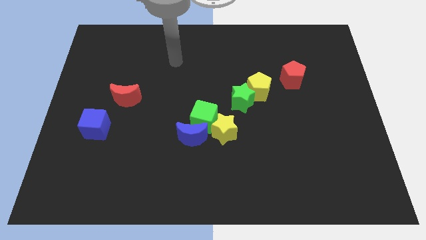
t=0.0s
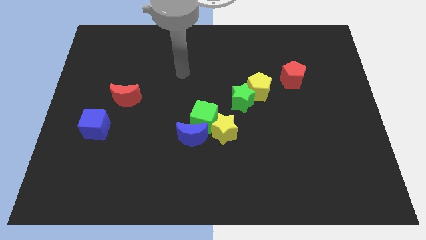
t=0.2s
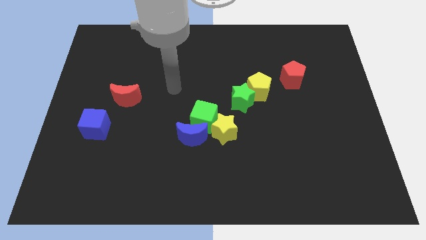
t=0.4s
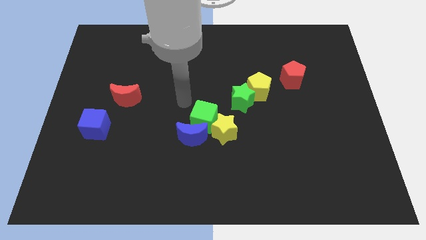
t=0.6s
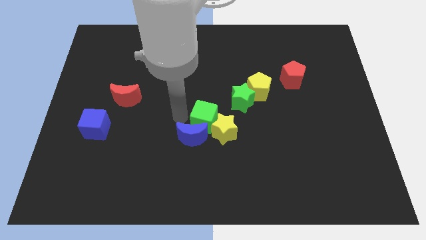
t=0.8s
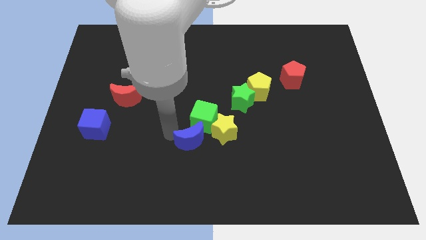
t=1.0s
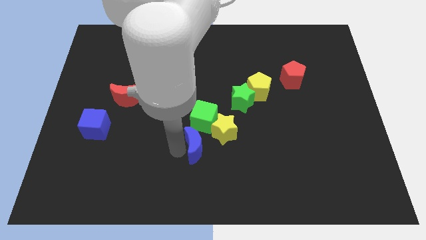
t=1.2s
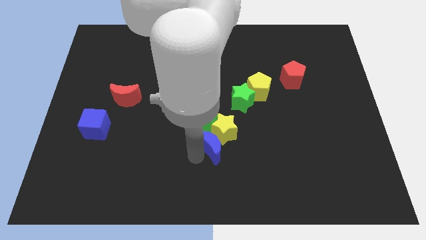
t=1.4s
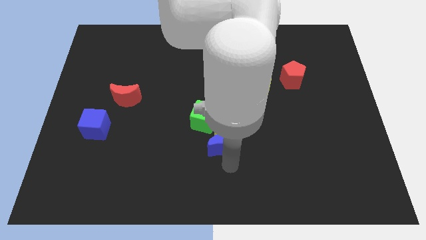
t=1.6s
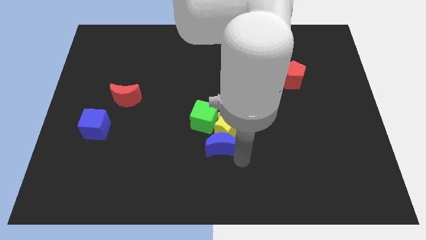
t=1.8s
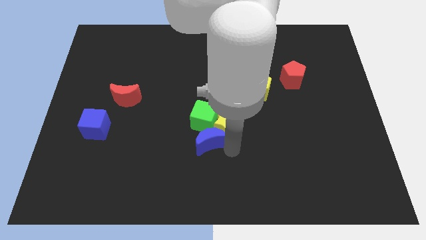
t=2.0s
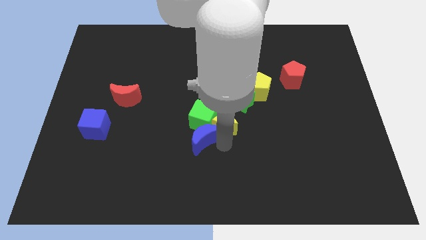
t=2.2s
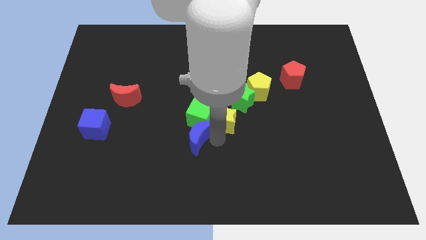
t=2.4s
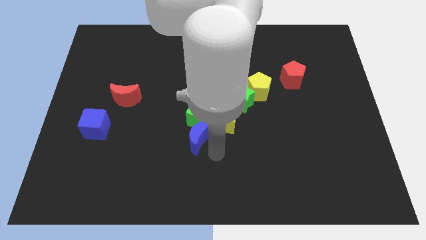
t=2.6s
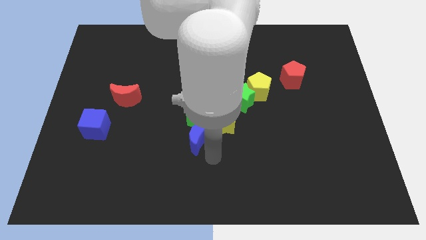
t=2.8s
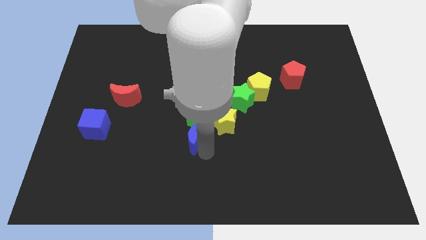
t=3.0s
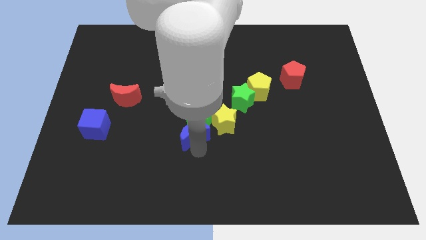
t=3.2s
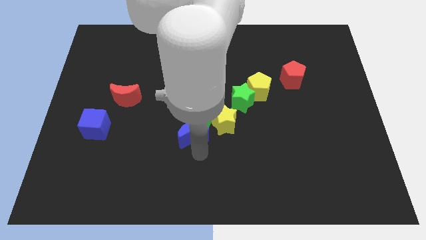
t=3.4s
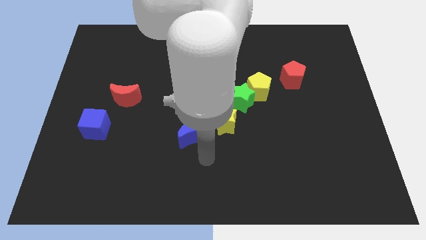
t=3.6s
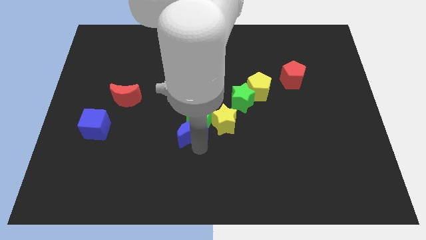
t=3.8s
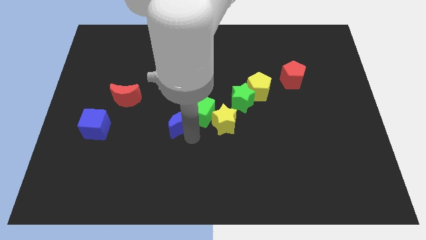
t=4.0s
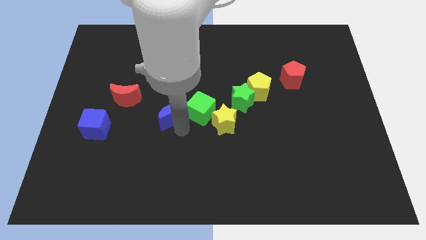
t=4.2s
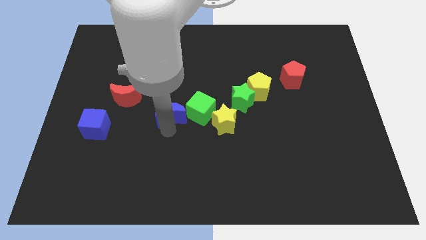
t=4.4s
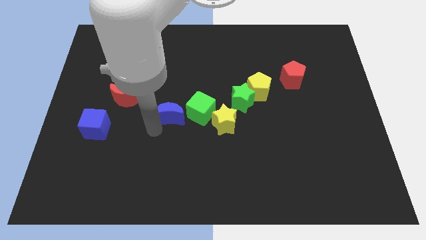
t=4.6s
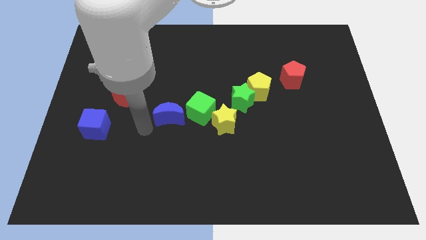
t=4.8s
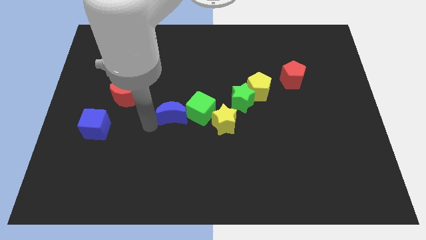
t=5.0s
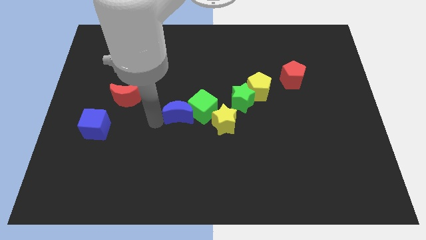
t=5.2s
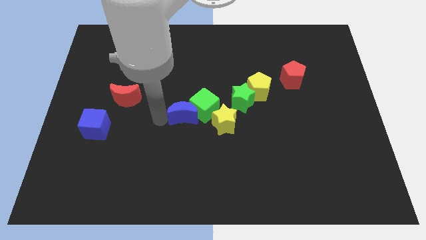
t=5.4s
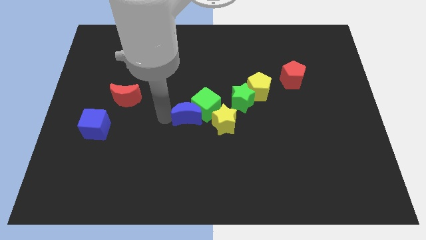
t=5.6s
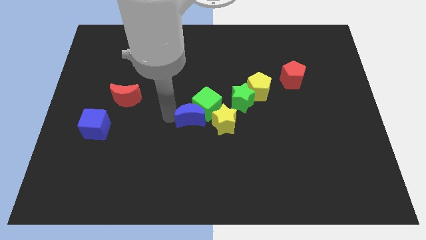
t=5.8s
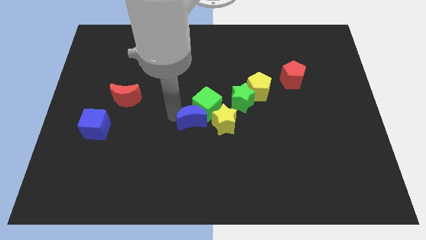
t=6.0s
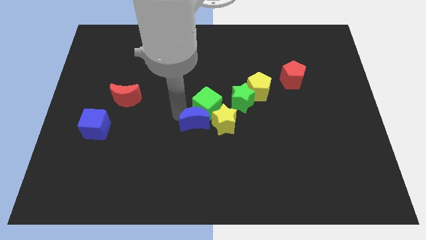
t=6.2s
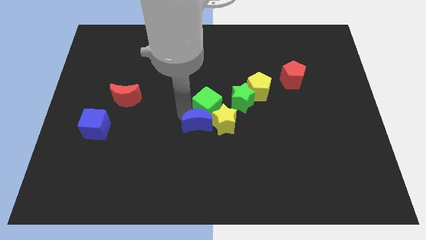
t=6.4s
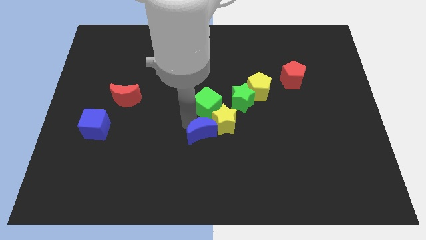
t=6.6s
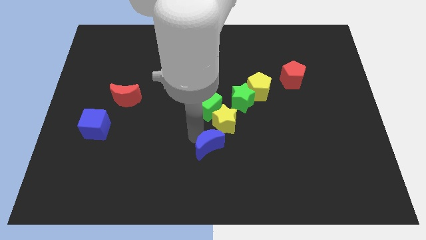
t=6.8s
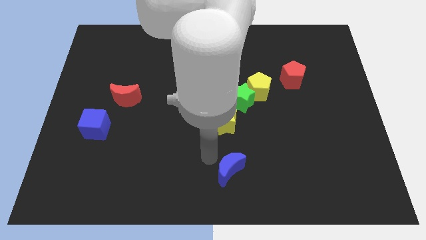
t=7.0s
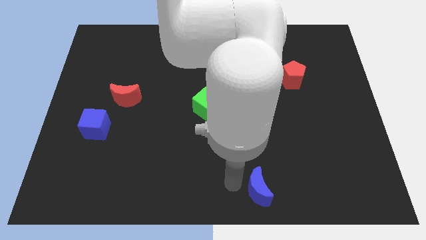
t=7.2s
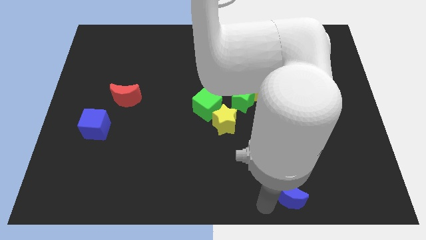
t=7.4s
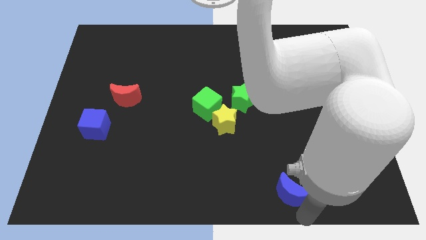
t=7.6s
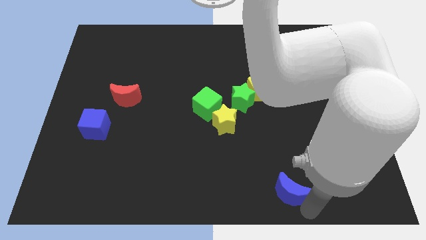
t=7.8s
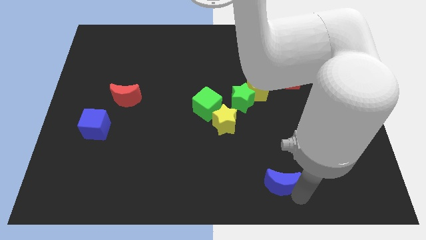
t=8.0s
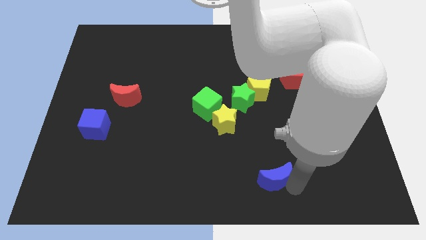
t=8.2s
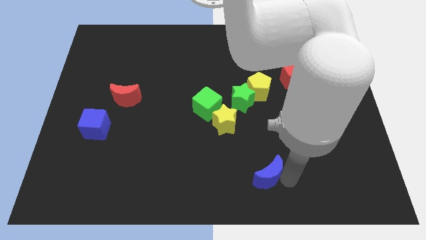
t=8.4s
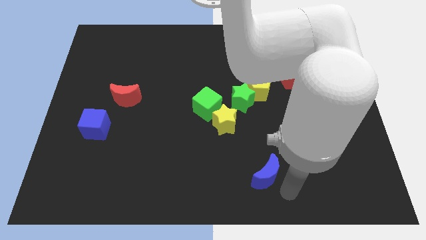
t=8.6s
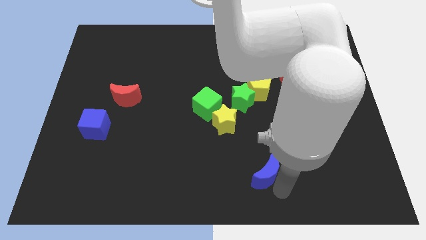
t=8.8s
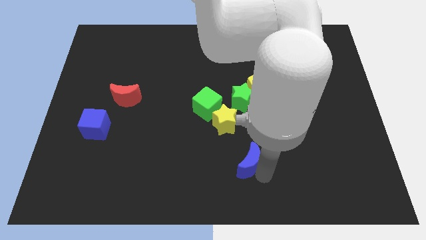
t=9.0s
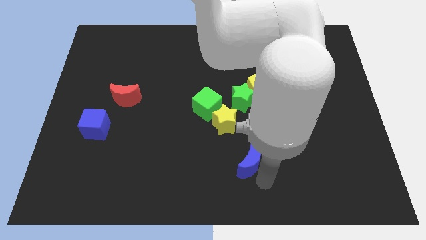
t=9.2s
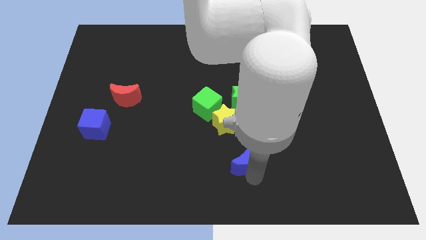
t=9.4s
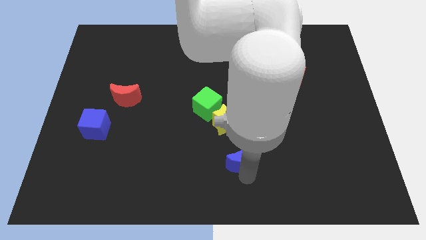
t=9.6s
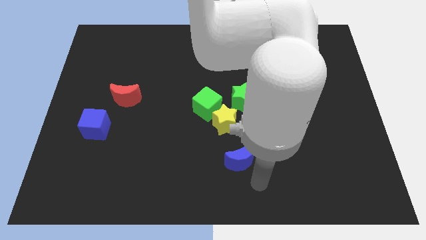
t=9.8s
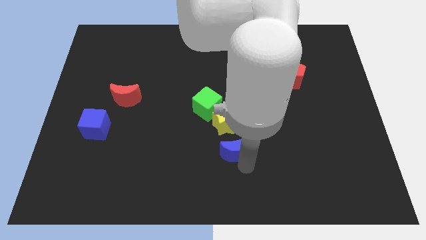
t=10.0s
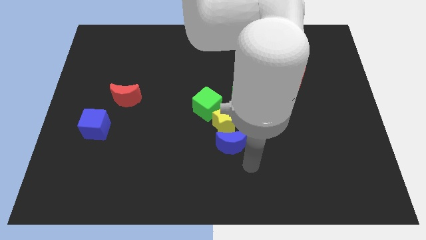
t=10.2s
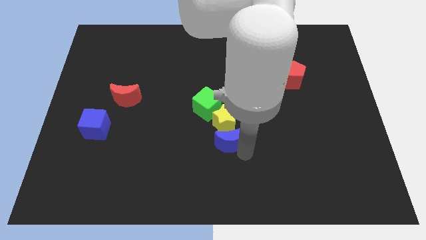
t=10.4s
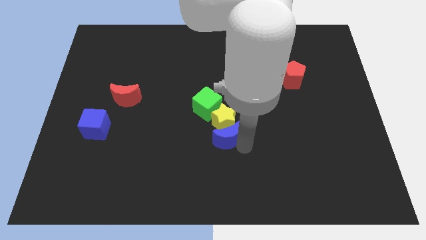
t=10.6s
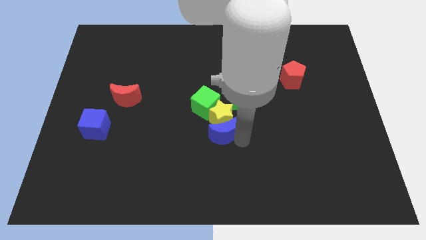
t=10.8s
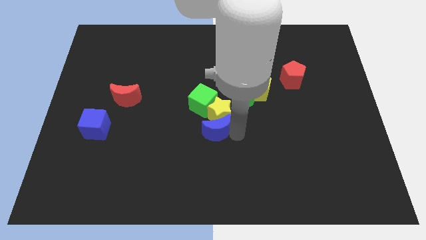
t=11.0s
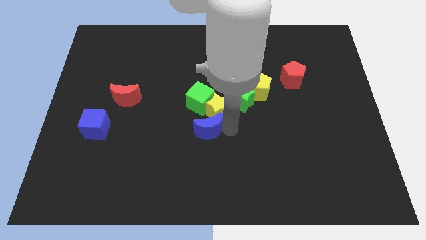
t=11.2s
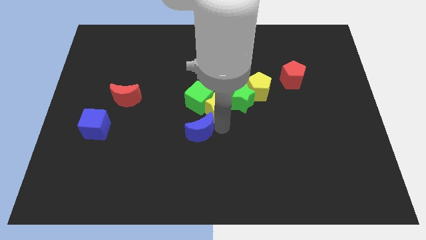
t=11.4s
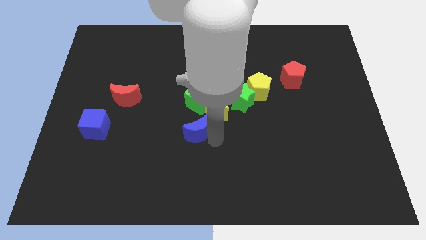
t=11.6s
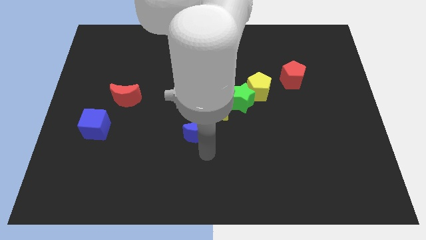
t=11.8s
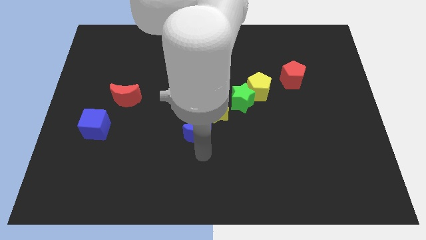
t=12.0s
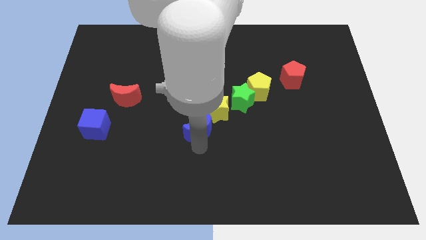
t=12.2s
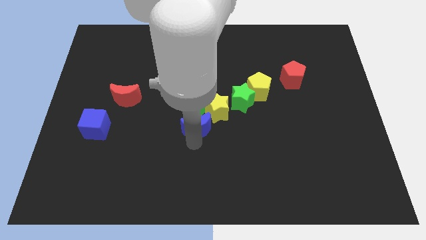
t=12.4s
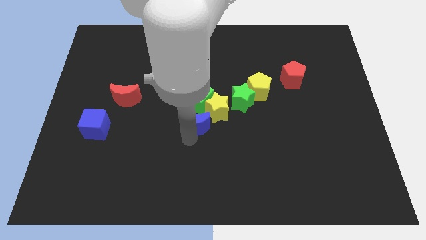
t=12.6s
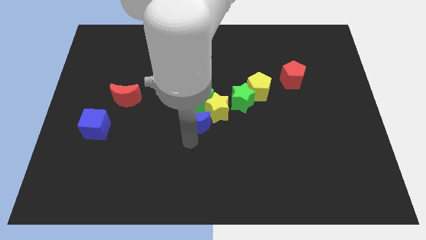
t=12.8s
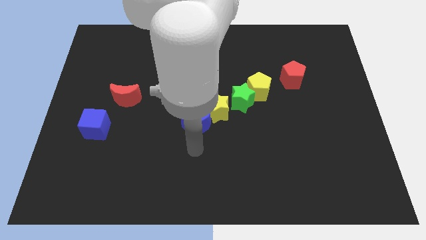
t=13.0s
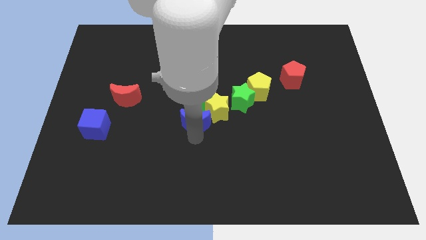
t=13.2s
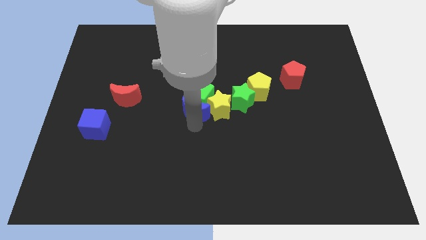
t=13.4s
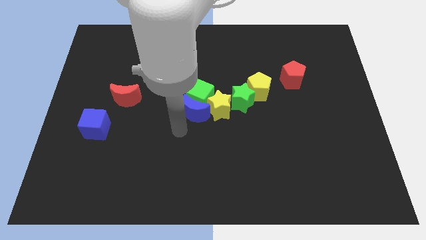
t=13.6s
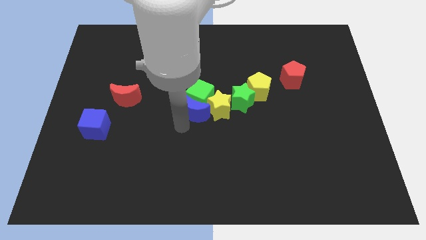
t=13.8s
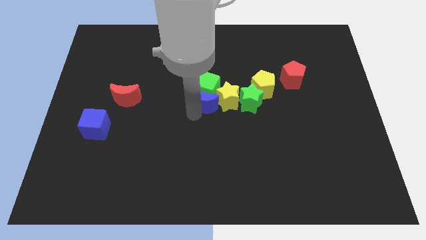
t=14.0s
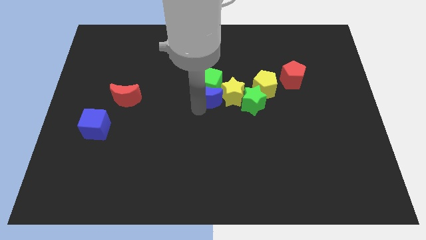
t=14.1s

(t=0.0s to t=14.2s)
put the blue moon just left of the yellow pentagon
